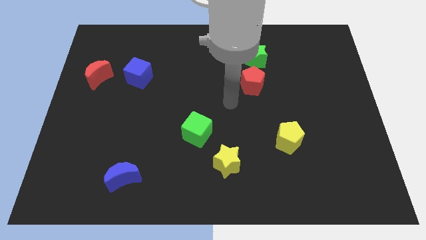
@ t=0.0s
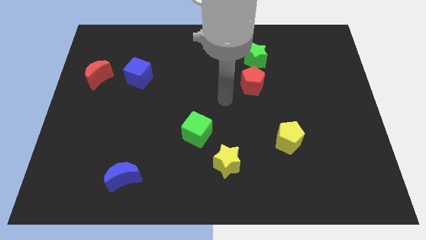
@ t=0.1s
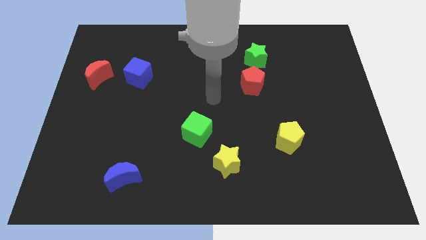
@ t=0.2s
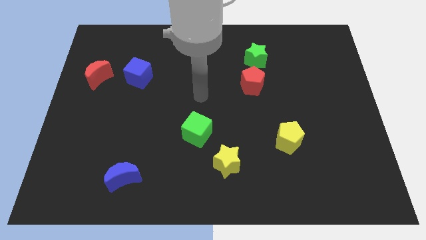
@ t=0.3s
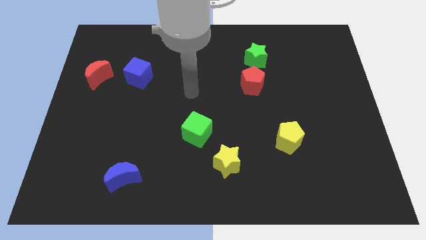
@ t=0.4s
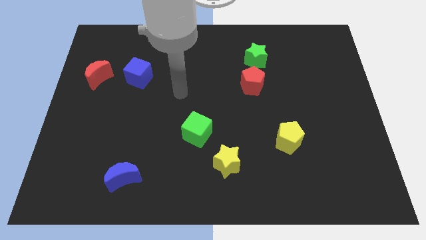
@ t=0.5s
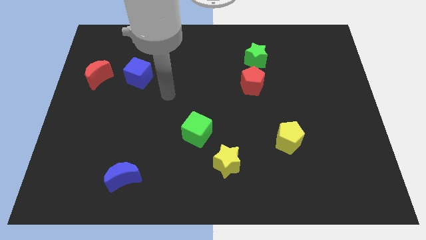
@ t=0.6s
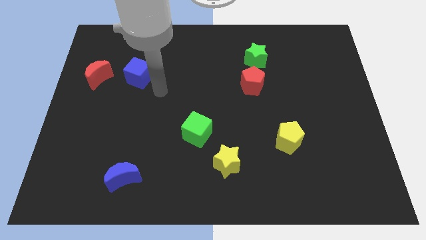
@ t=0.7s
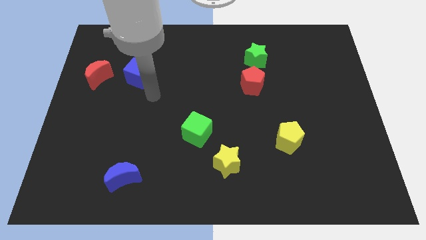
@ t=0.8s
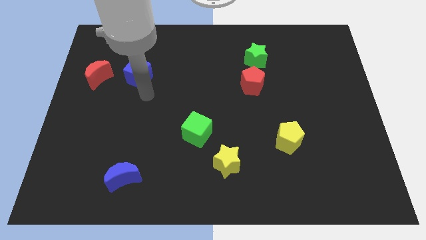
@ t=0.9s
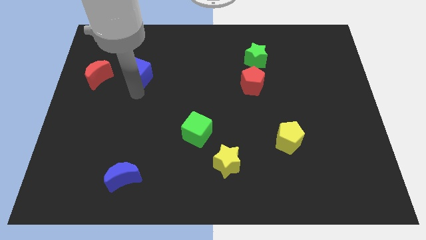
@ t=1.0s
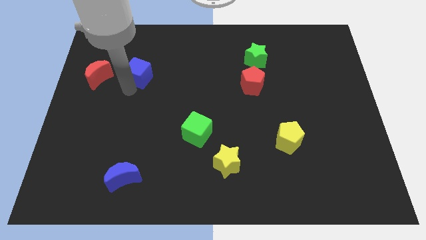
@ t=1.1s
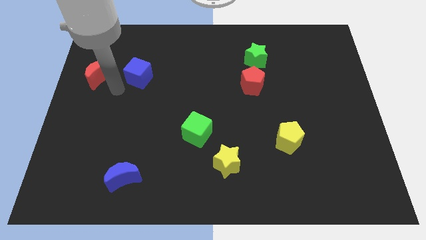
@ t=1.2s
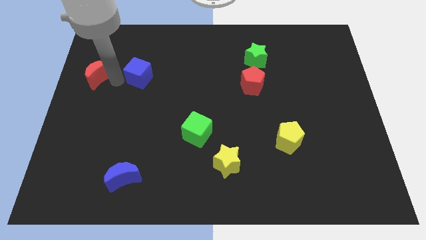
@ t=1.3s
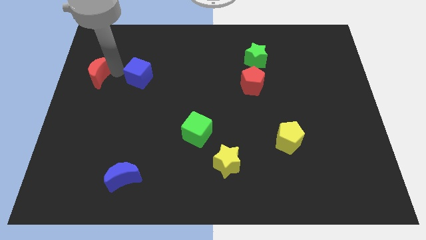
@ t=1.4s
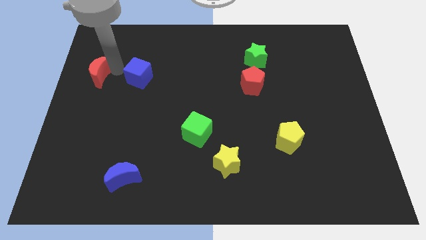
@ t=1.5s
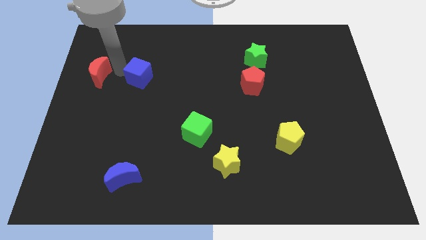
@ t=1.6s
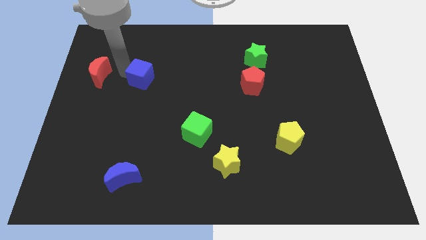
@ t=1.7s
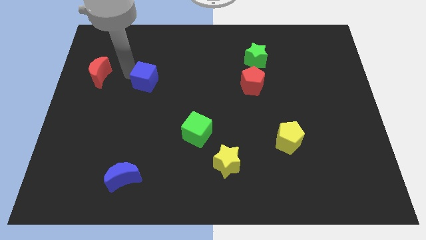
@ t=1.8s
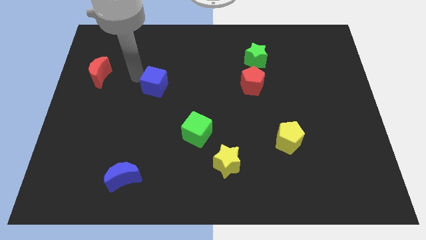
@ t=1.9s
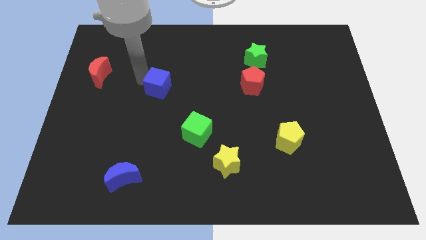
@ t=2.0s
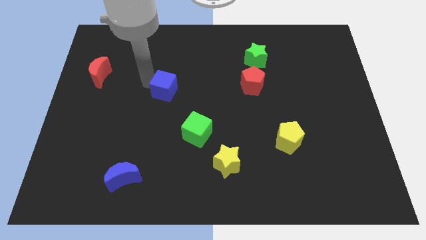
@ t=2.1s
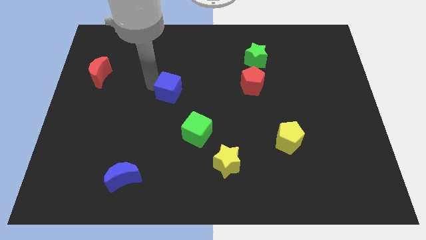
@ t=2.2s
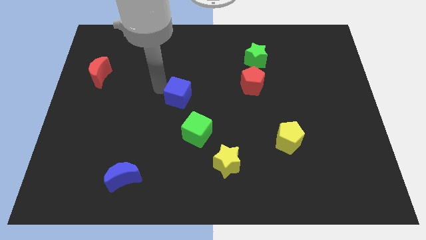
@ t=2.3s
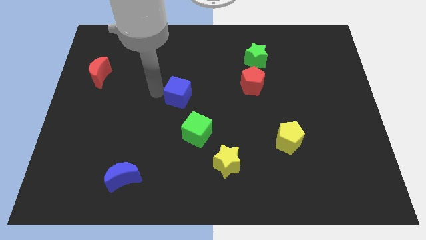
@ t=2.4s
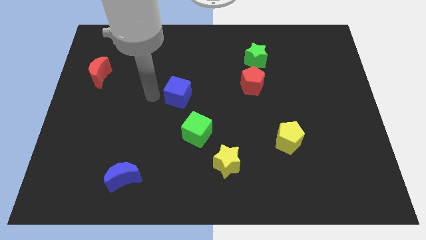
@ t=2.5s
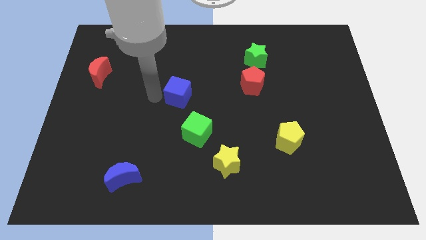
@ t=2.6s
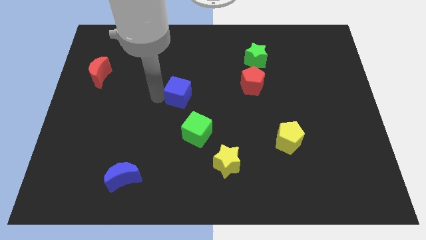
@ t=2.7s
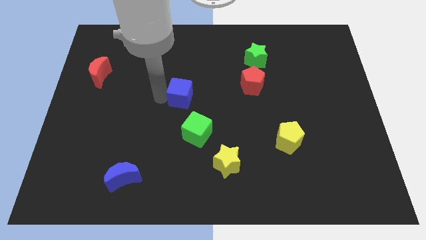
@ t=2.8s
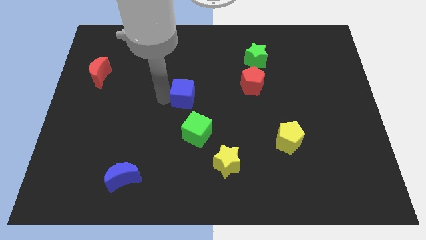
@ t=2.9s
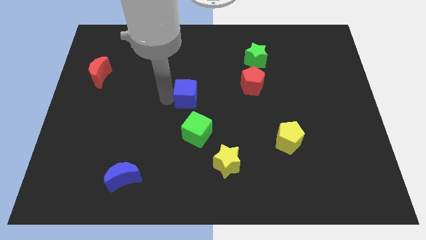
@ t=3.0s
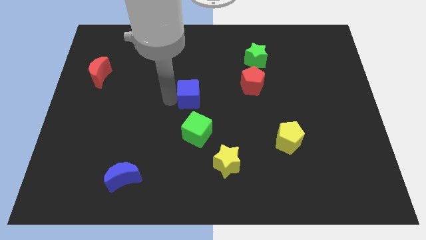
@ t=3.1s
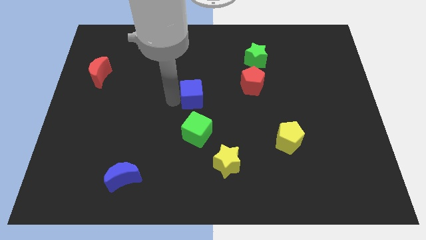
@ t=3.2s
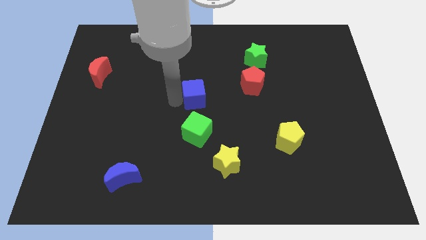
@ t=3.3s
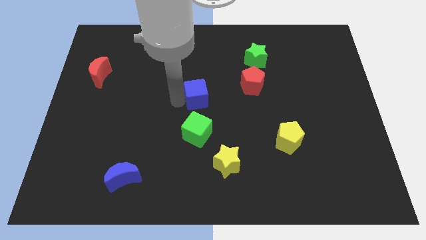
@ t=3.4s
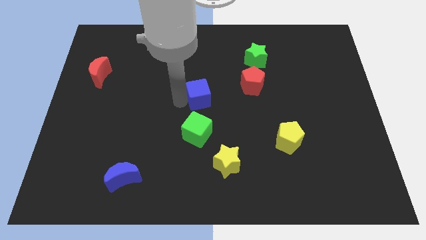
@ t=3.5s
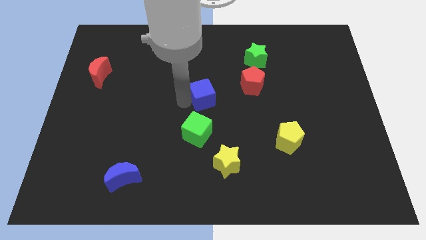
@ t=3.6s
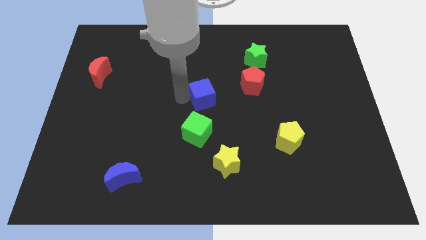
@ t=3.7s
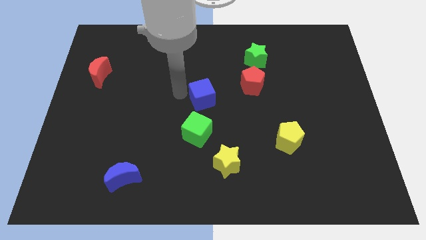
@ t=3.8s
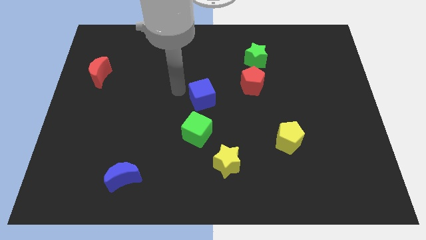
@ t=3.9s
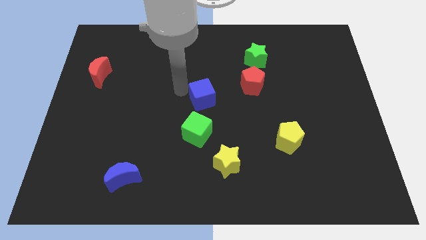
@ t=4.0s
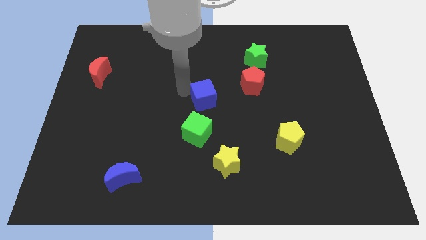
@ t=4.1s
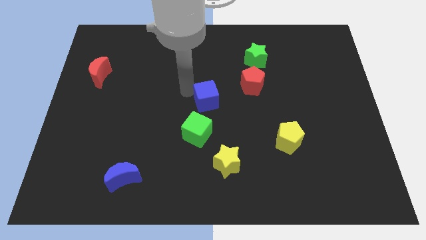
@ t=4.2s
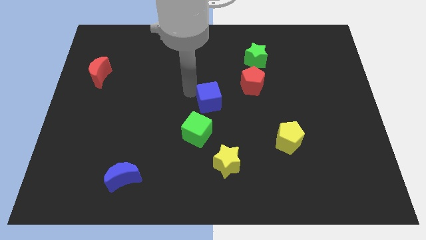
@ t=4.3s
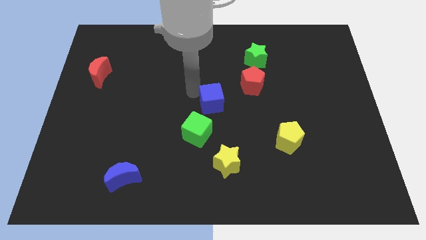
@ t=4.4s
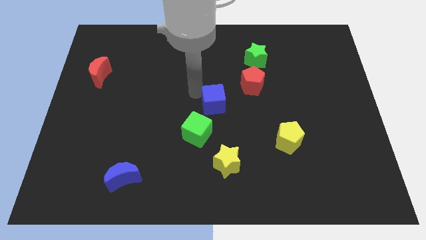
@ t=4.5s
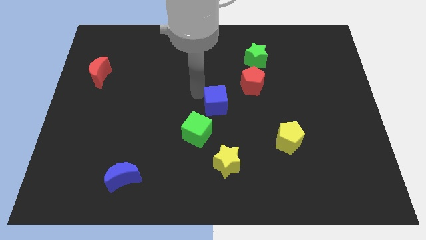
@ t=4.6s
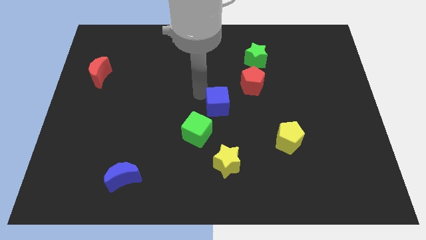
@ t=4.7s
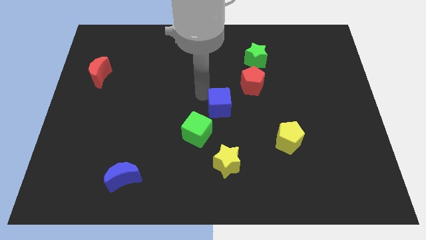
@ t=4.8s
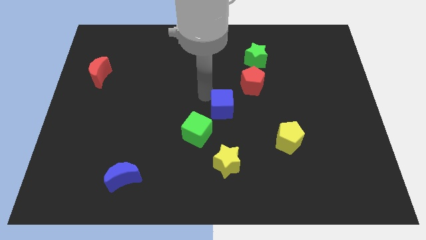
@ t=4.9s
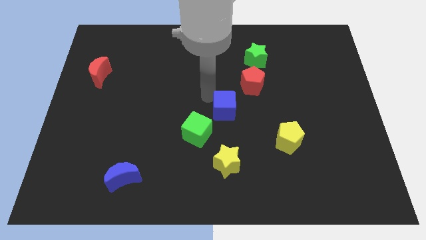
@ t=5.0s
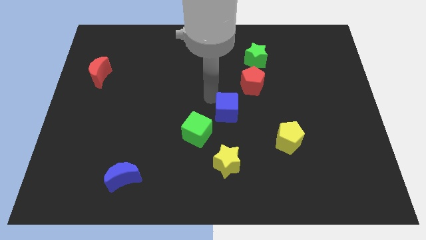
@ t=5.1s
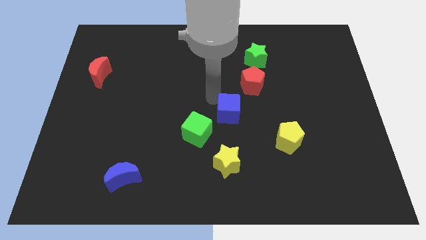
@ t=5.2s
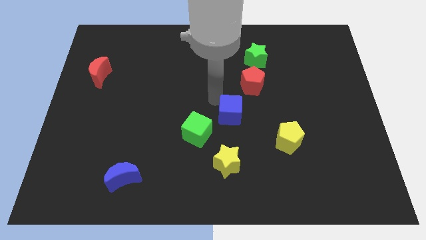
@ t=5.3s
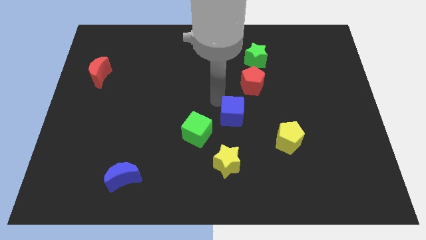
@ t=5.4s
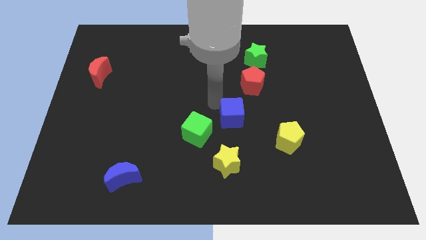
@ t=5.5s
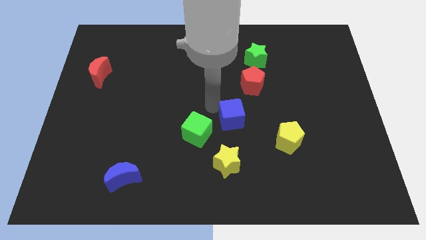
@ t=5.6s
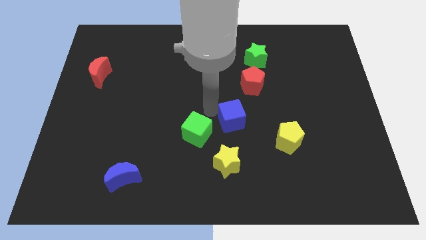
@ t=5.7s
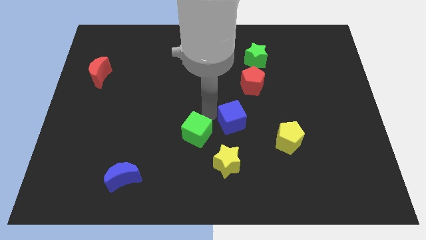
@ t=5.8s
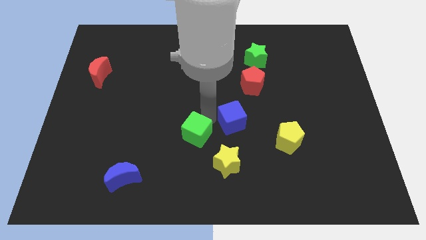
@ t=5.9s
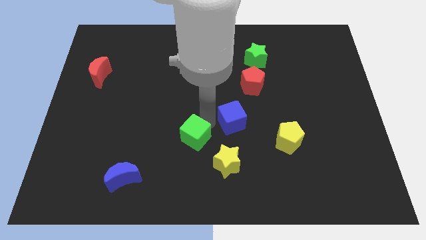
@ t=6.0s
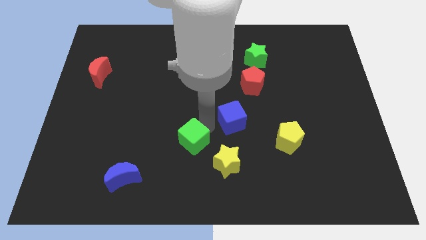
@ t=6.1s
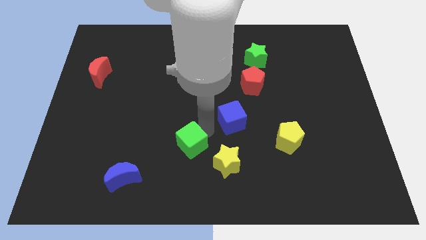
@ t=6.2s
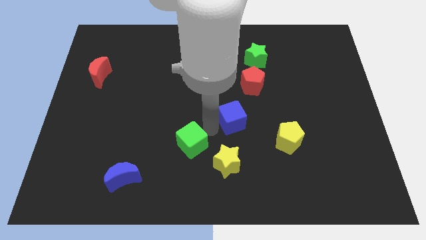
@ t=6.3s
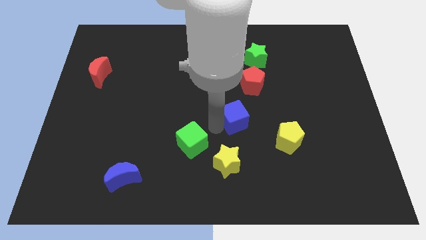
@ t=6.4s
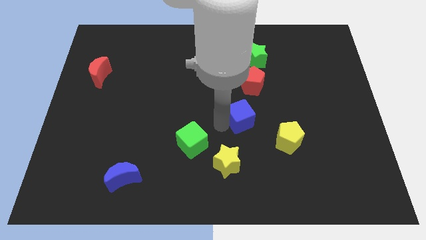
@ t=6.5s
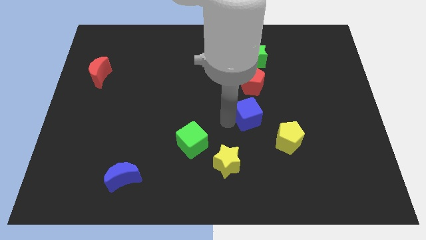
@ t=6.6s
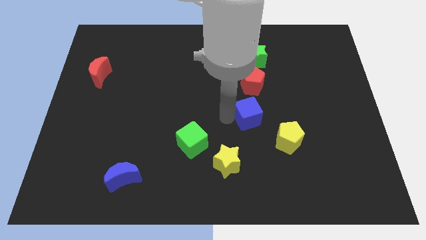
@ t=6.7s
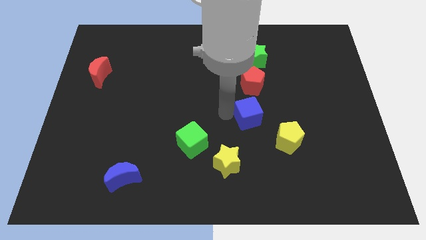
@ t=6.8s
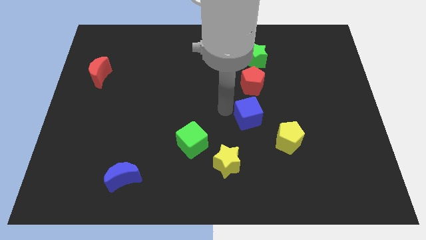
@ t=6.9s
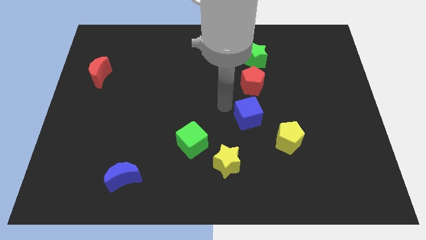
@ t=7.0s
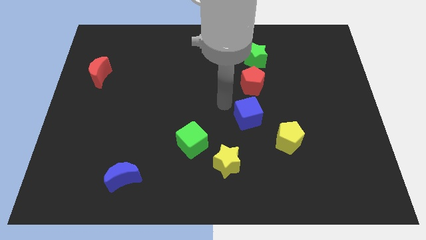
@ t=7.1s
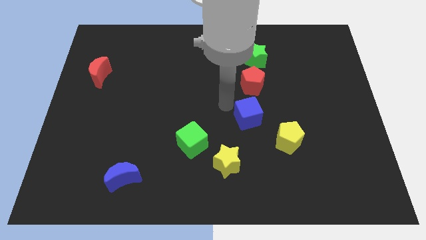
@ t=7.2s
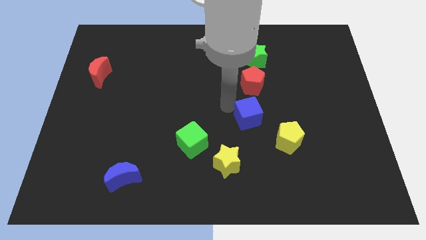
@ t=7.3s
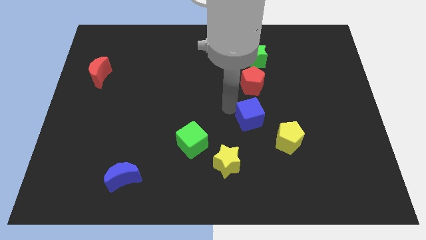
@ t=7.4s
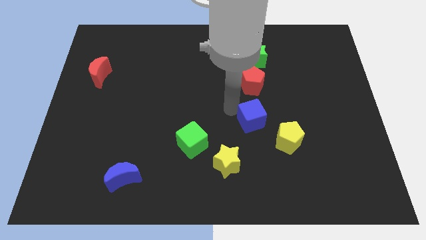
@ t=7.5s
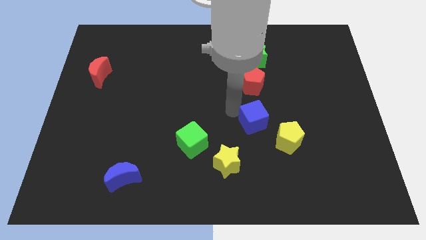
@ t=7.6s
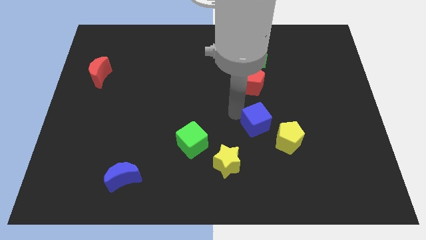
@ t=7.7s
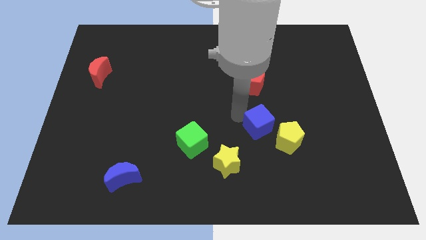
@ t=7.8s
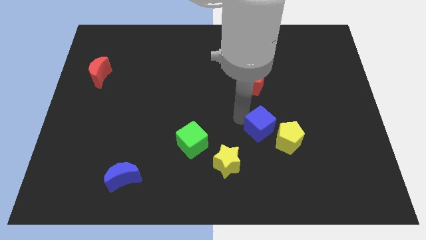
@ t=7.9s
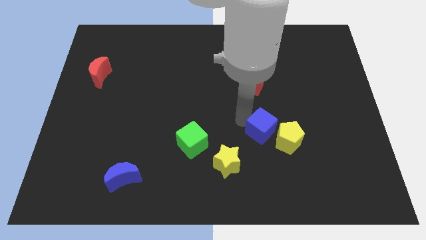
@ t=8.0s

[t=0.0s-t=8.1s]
push the blue cube close to the yellow pentagon
